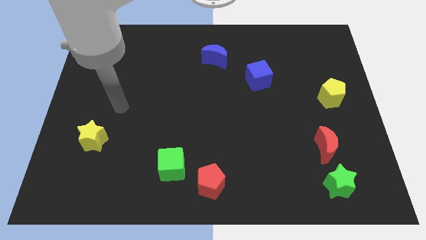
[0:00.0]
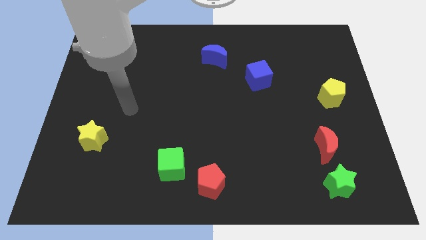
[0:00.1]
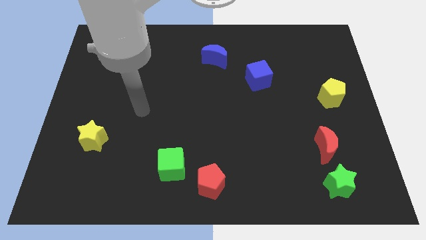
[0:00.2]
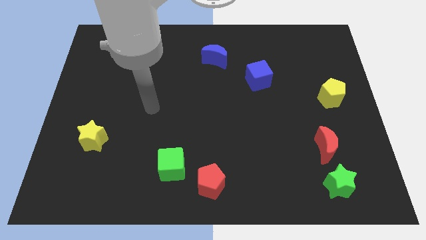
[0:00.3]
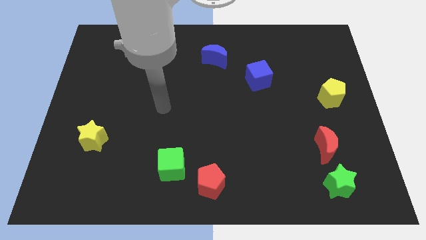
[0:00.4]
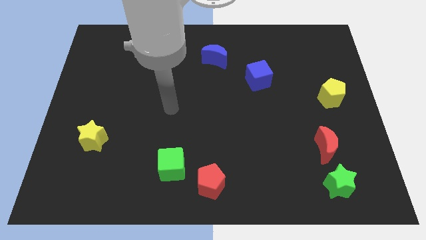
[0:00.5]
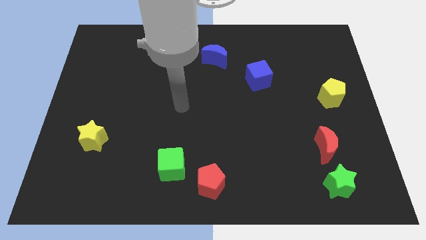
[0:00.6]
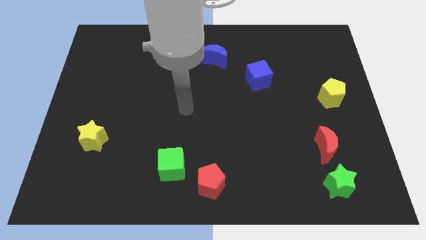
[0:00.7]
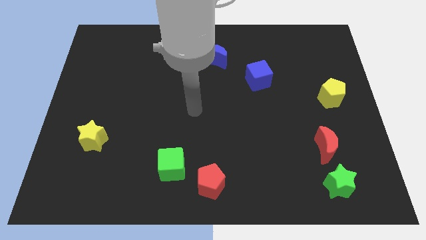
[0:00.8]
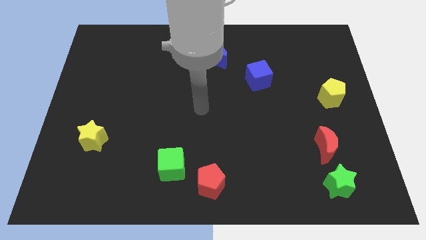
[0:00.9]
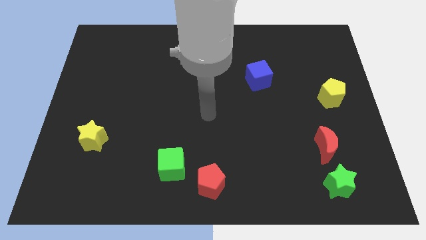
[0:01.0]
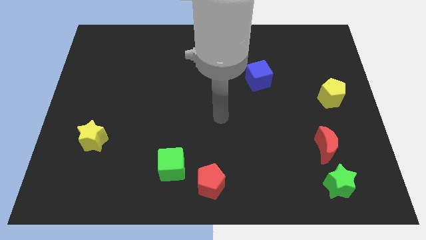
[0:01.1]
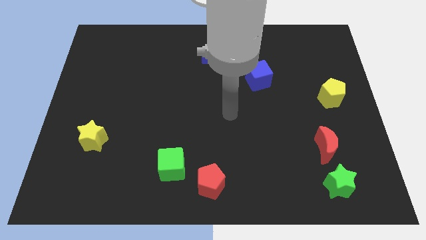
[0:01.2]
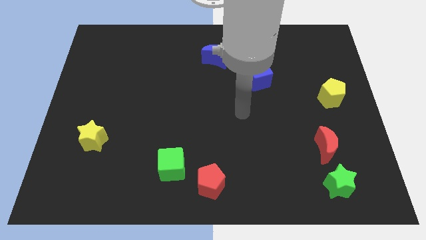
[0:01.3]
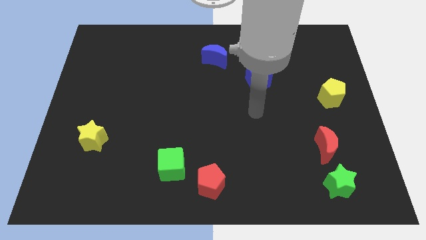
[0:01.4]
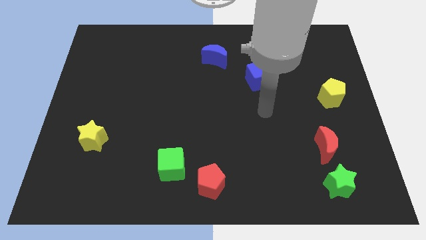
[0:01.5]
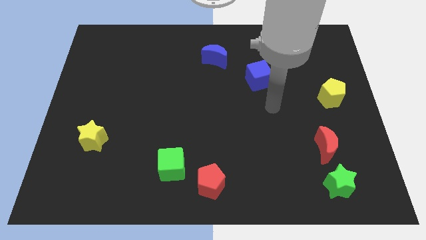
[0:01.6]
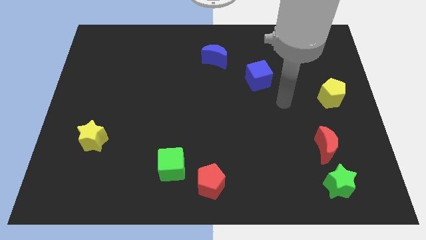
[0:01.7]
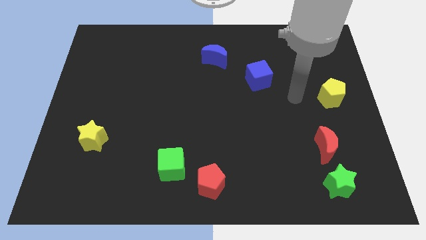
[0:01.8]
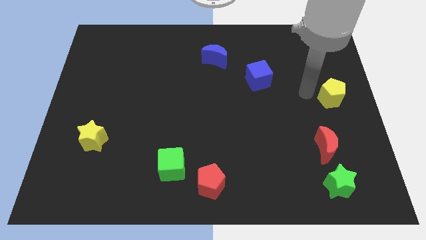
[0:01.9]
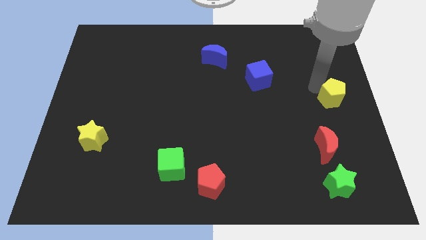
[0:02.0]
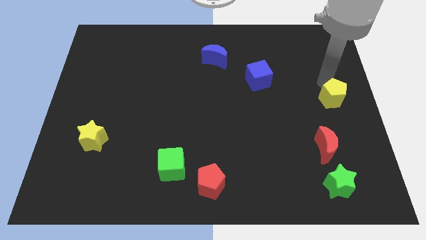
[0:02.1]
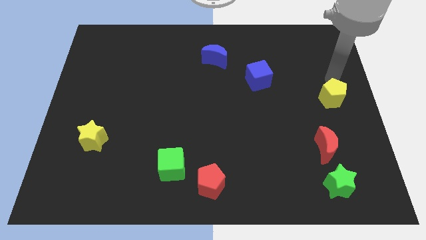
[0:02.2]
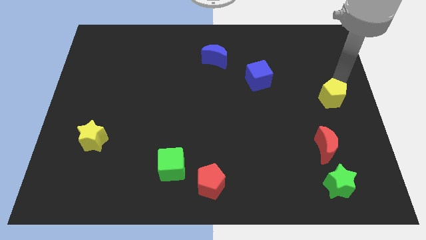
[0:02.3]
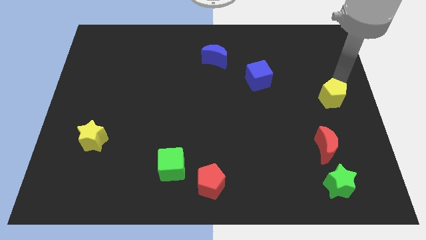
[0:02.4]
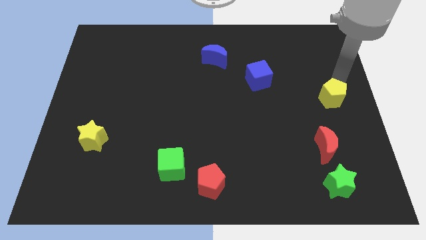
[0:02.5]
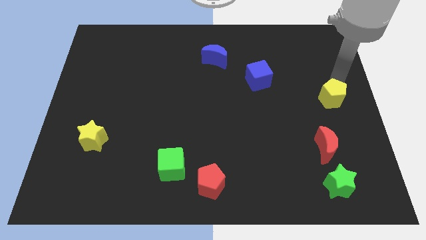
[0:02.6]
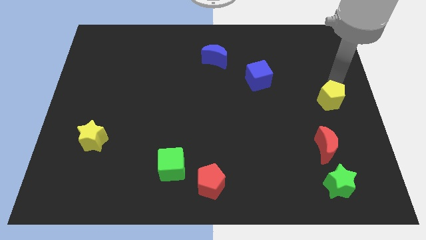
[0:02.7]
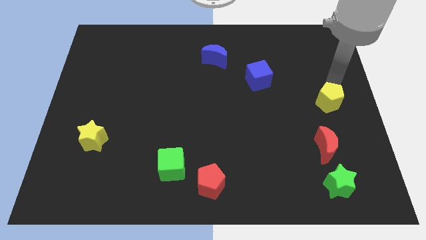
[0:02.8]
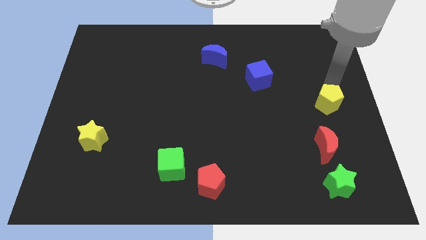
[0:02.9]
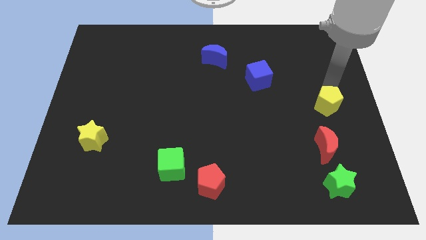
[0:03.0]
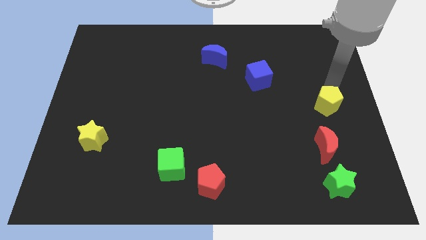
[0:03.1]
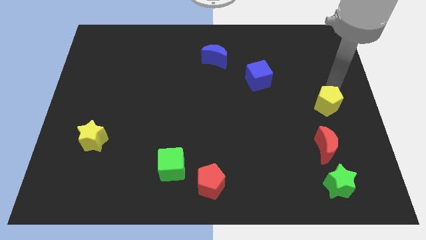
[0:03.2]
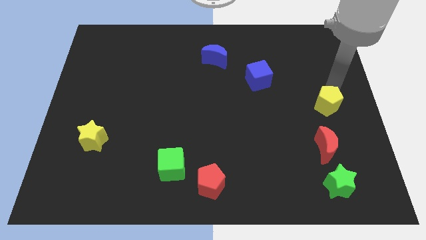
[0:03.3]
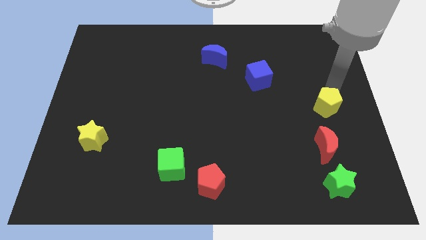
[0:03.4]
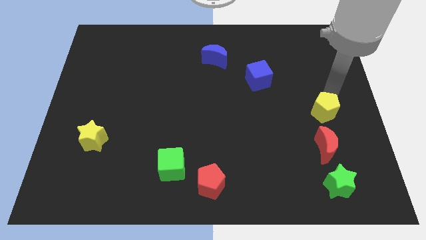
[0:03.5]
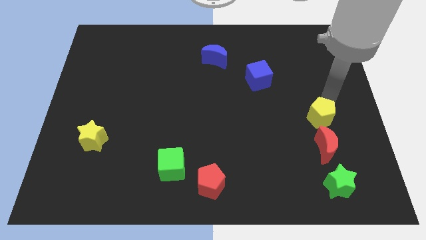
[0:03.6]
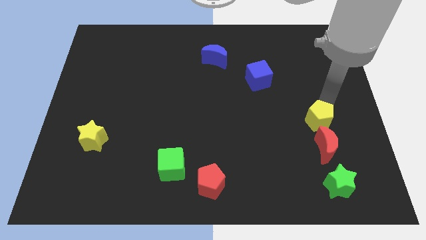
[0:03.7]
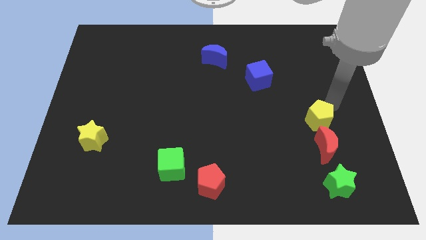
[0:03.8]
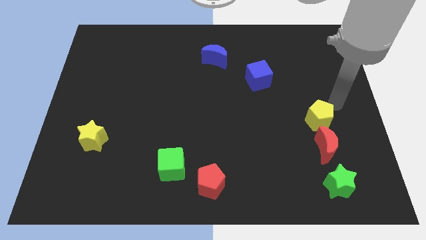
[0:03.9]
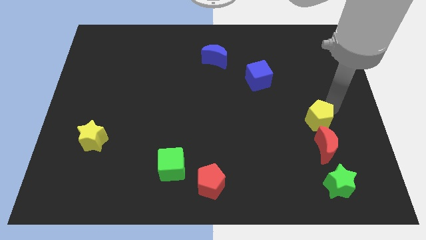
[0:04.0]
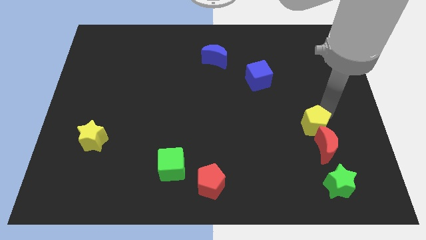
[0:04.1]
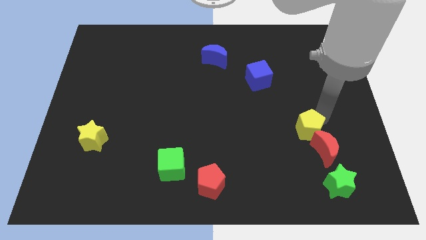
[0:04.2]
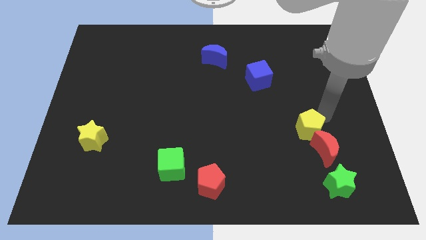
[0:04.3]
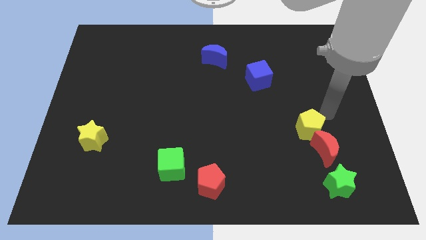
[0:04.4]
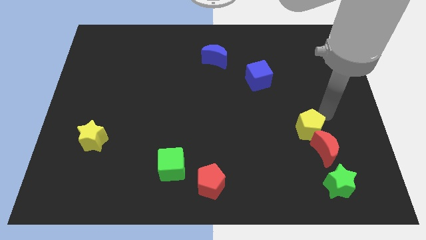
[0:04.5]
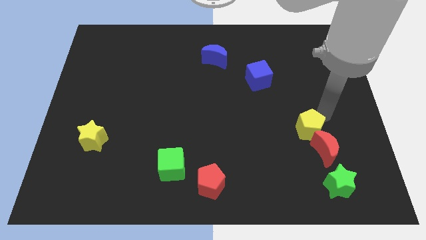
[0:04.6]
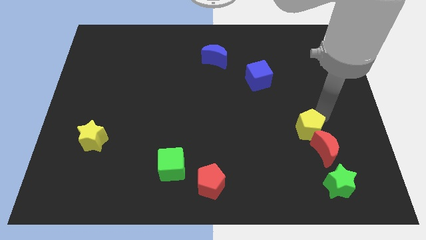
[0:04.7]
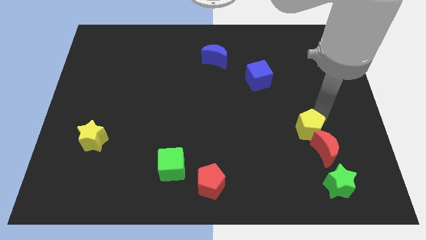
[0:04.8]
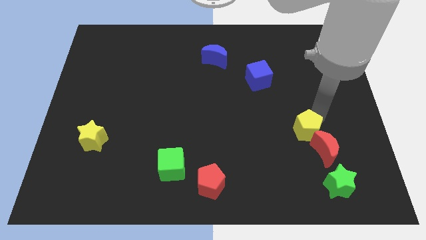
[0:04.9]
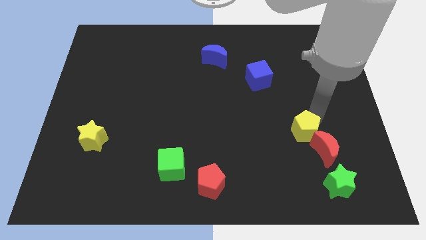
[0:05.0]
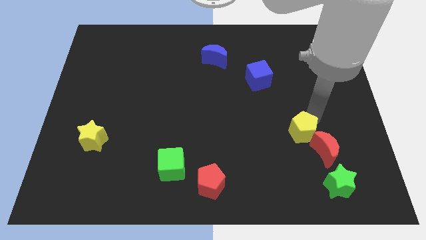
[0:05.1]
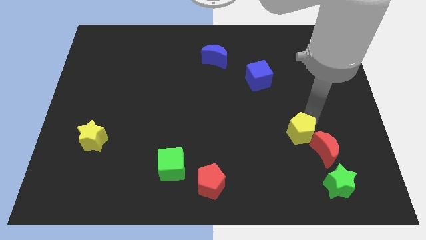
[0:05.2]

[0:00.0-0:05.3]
move the yellow pentagon just left of the red moon
